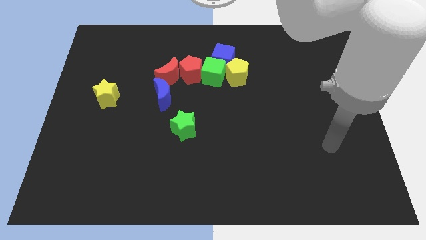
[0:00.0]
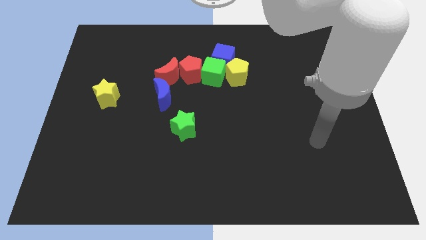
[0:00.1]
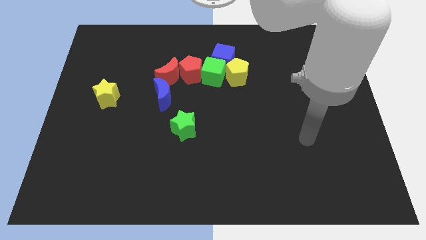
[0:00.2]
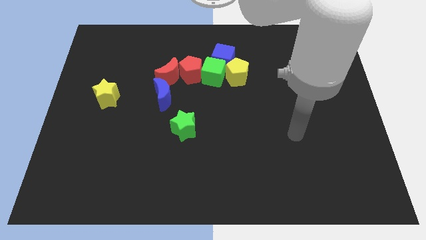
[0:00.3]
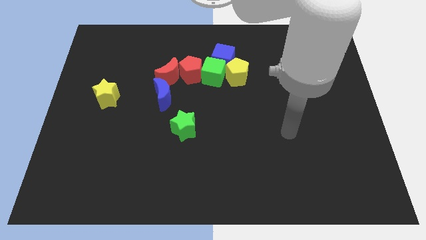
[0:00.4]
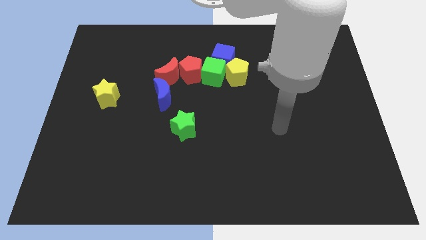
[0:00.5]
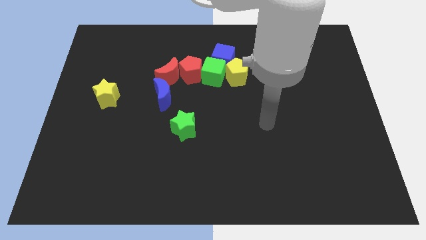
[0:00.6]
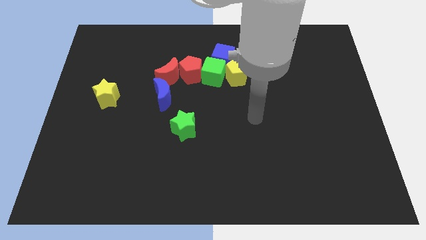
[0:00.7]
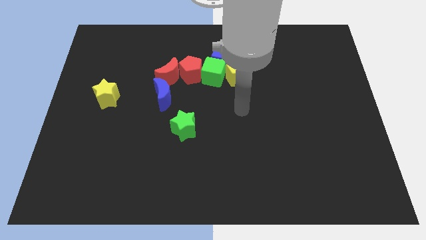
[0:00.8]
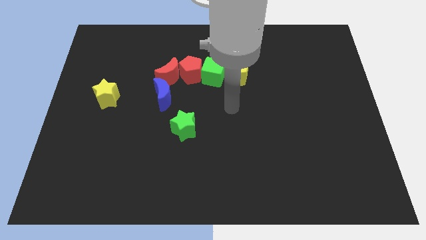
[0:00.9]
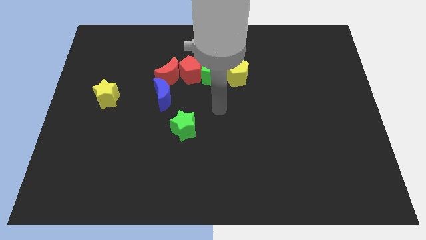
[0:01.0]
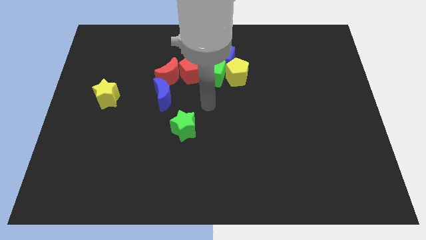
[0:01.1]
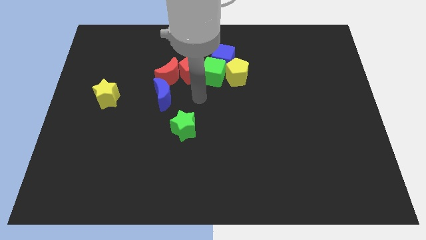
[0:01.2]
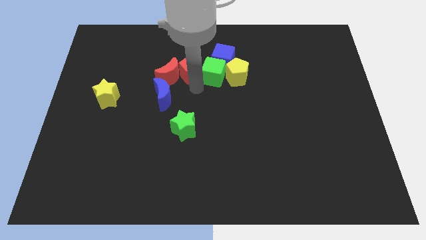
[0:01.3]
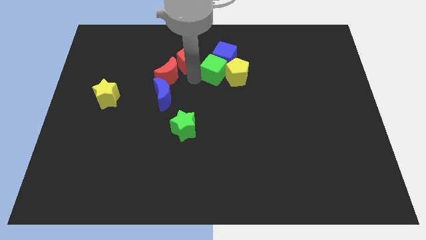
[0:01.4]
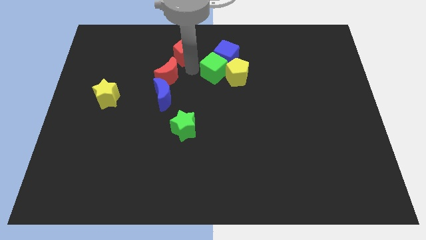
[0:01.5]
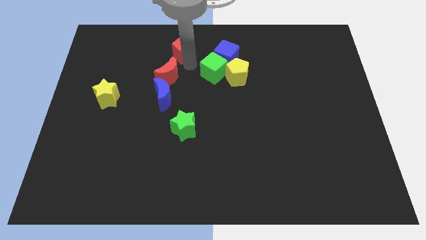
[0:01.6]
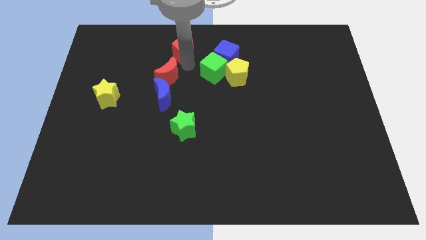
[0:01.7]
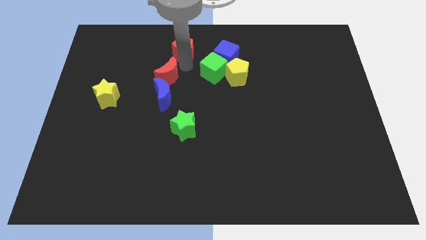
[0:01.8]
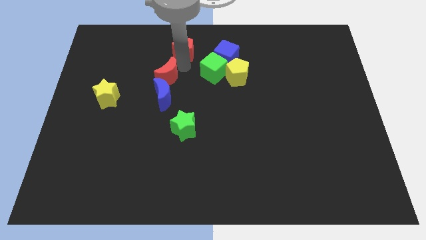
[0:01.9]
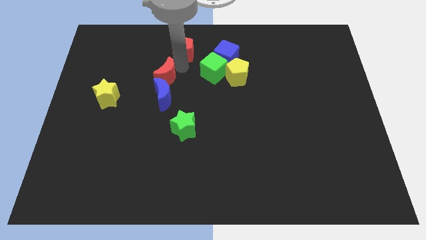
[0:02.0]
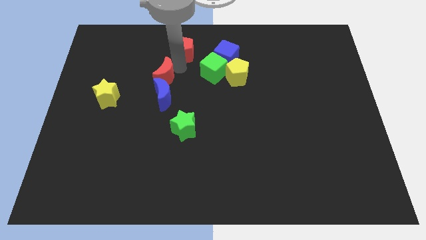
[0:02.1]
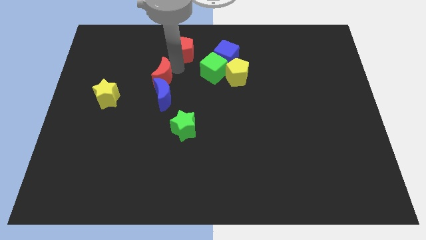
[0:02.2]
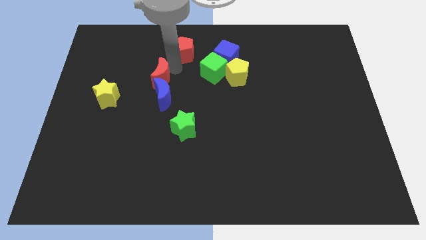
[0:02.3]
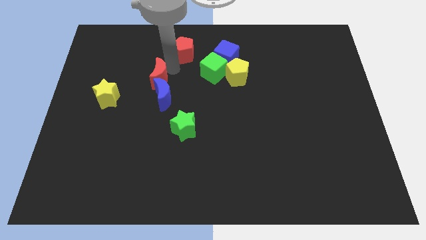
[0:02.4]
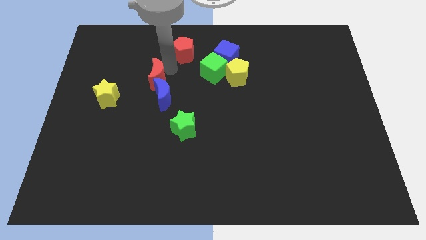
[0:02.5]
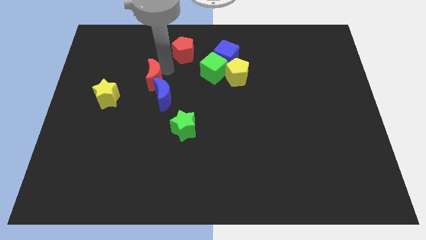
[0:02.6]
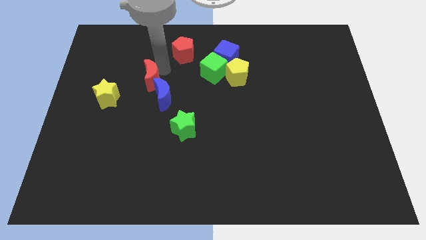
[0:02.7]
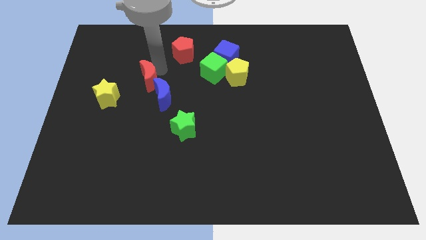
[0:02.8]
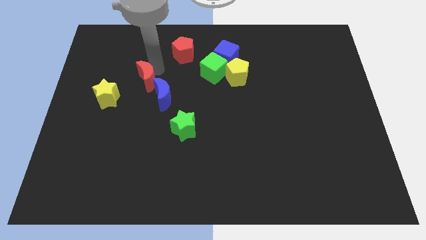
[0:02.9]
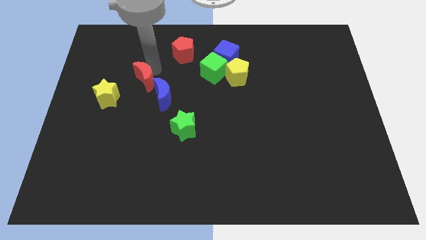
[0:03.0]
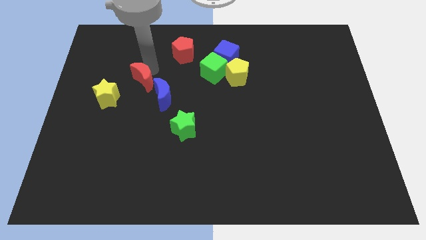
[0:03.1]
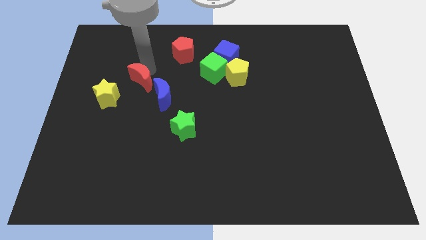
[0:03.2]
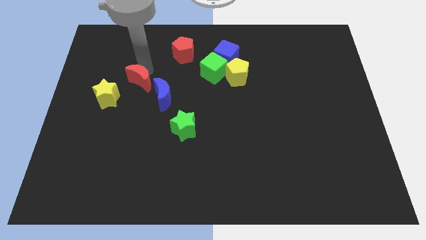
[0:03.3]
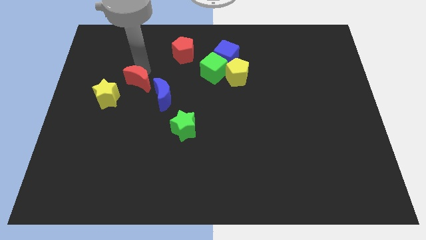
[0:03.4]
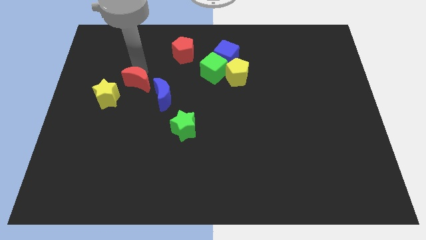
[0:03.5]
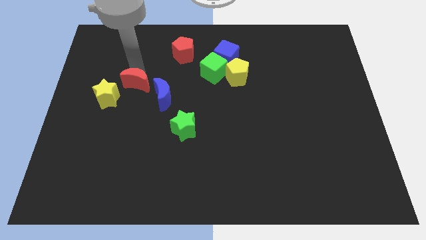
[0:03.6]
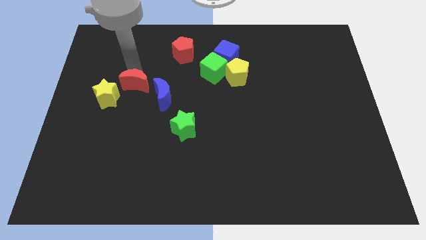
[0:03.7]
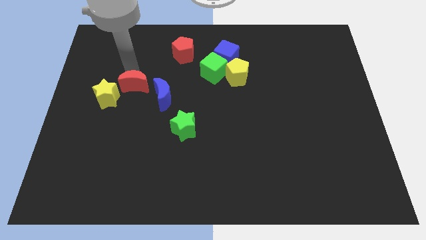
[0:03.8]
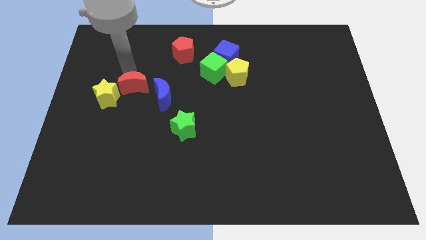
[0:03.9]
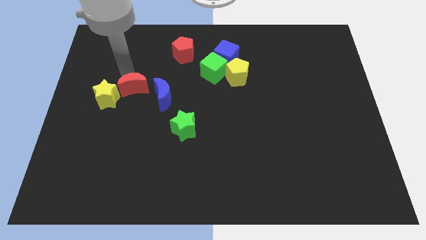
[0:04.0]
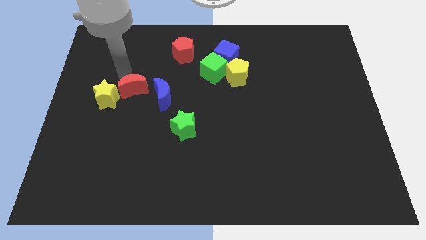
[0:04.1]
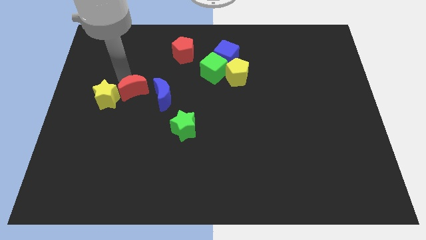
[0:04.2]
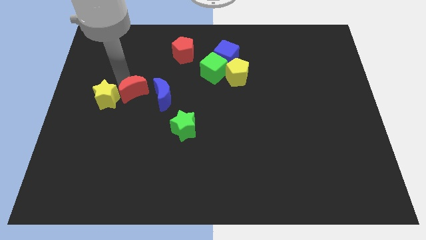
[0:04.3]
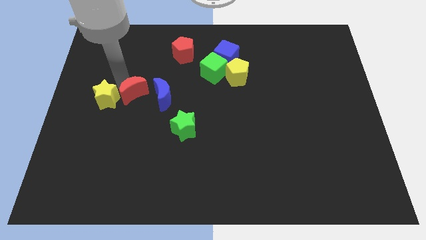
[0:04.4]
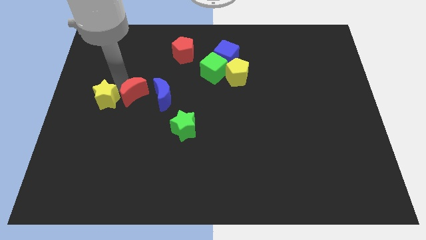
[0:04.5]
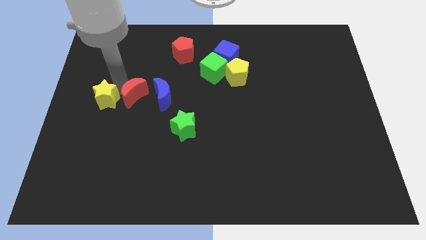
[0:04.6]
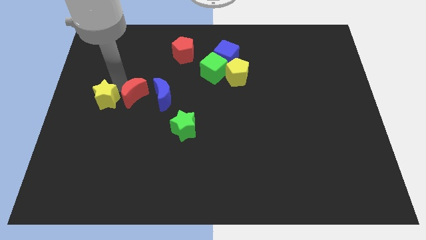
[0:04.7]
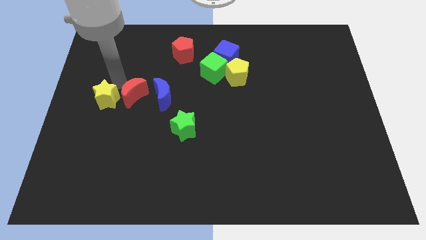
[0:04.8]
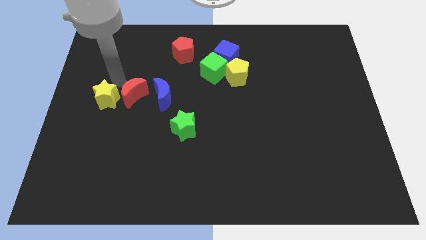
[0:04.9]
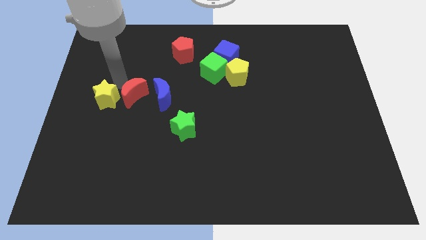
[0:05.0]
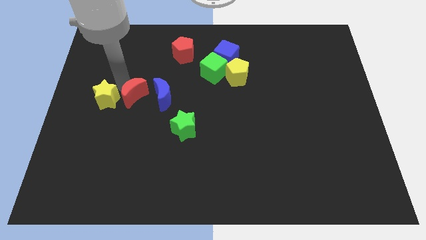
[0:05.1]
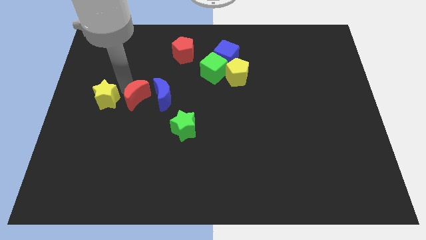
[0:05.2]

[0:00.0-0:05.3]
slide the red moon to the bottom left of the blue moon

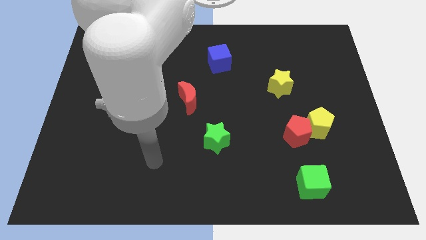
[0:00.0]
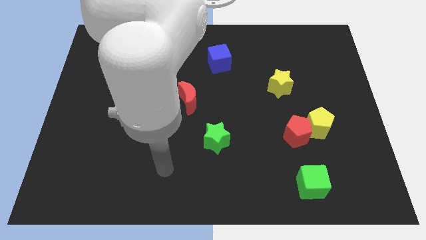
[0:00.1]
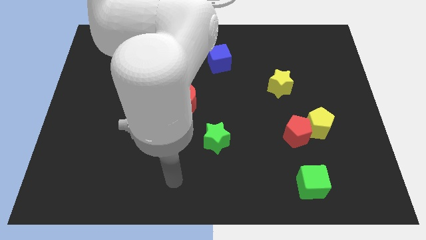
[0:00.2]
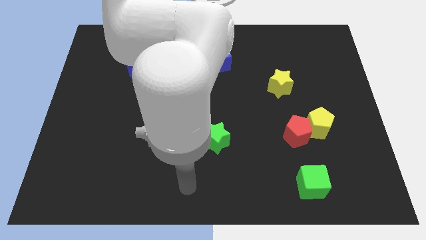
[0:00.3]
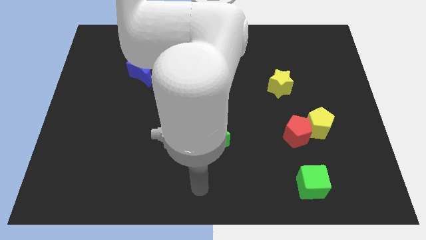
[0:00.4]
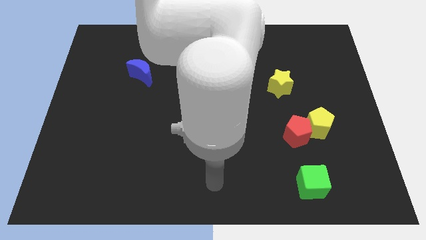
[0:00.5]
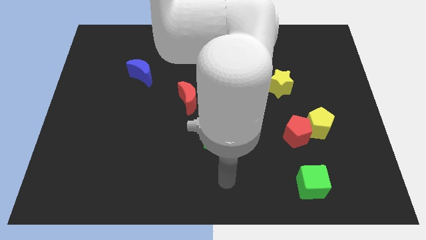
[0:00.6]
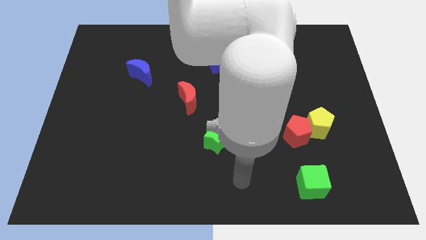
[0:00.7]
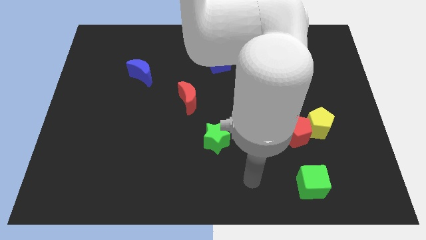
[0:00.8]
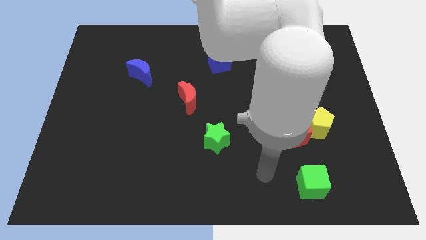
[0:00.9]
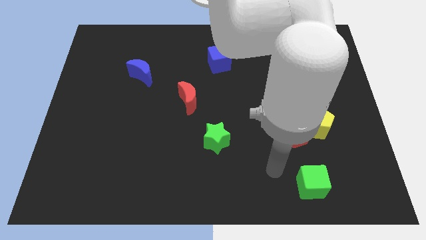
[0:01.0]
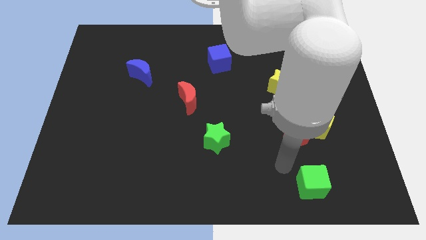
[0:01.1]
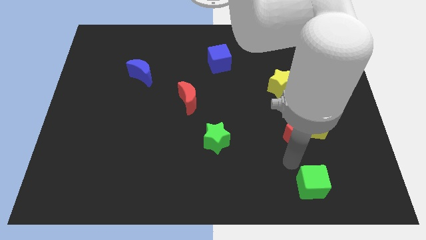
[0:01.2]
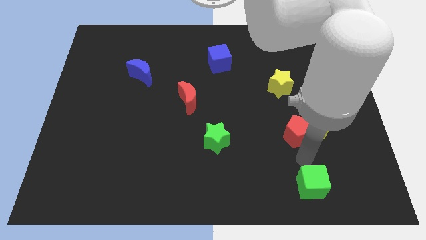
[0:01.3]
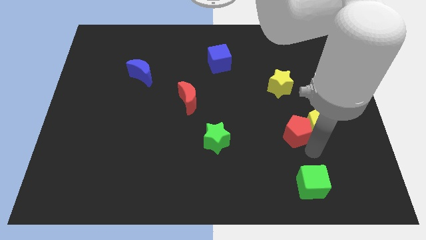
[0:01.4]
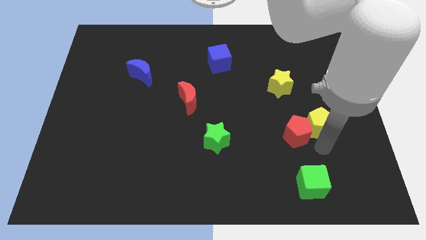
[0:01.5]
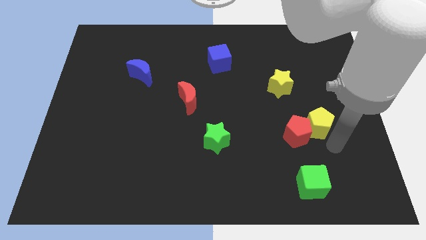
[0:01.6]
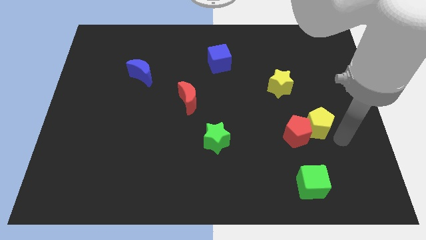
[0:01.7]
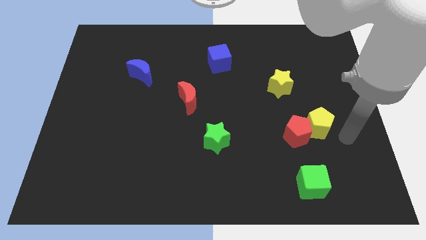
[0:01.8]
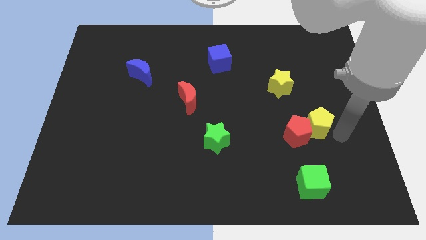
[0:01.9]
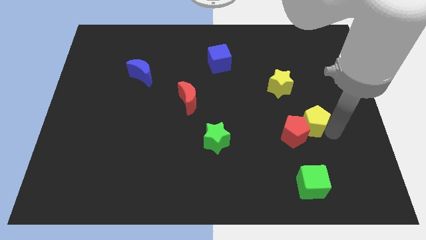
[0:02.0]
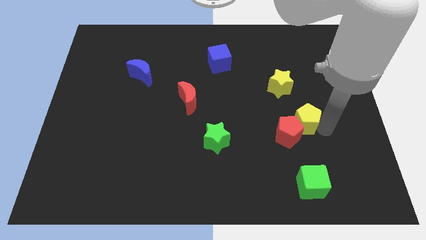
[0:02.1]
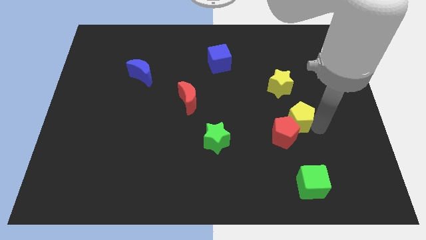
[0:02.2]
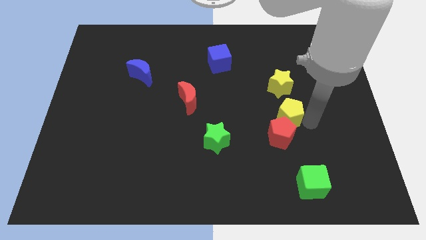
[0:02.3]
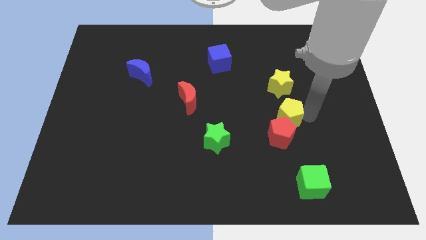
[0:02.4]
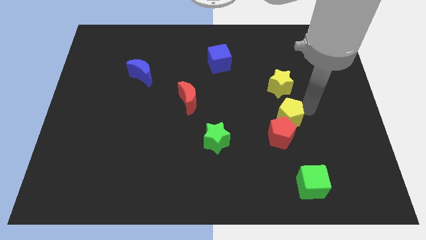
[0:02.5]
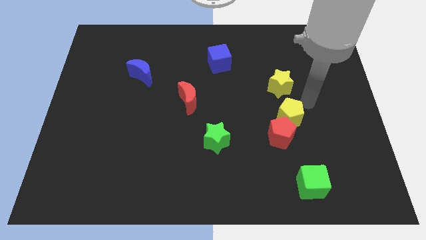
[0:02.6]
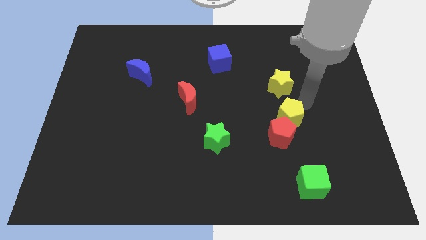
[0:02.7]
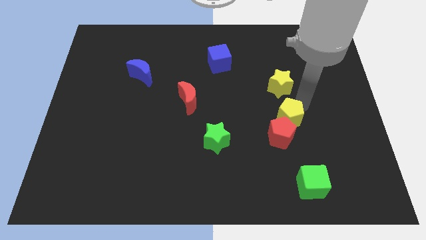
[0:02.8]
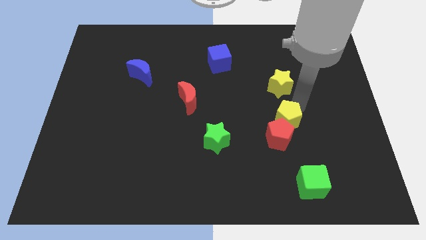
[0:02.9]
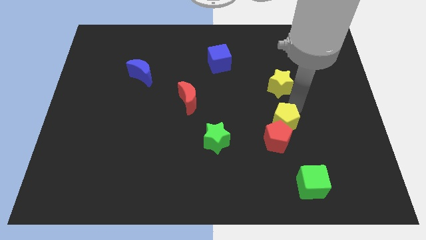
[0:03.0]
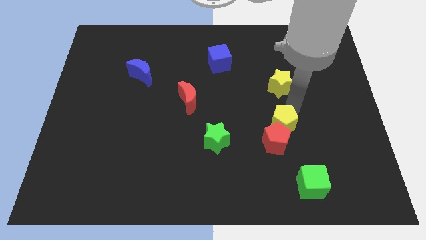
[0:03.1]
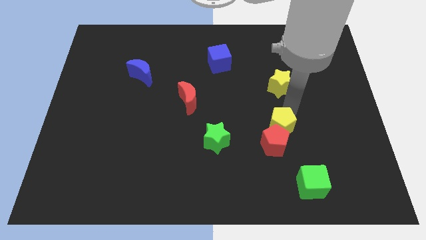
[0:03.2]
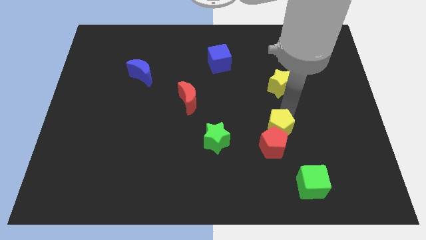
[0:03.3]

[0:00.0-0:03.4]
put the yellow pentagon to the right side of the green star
